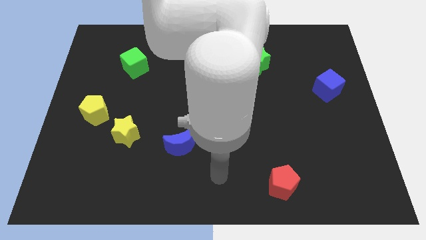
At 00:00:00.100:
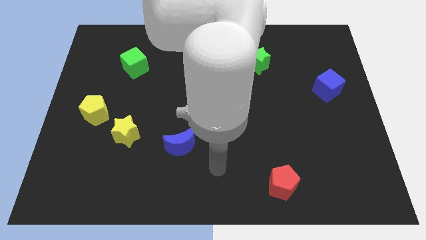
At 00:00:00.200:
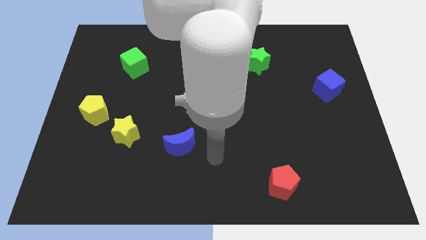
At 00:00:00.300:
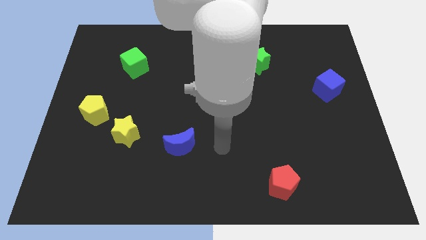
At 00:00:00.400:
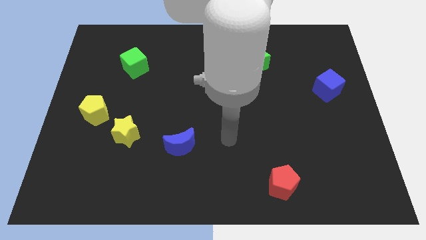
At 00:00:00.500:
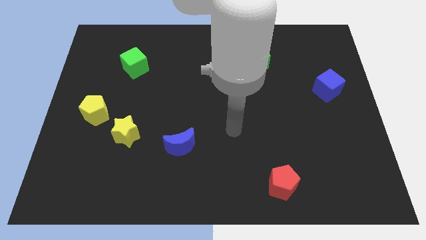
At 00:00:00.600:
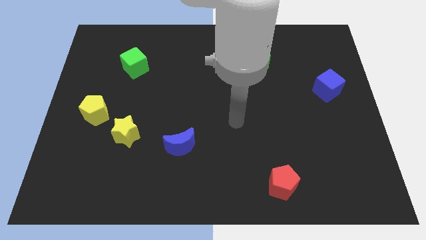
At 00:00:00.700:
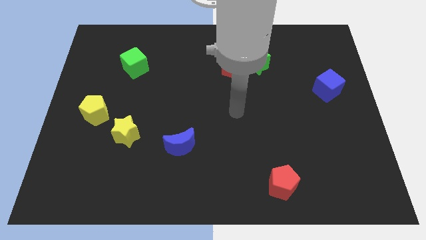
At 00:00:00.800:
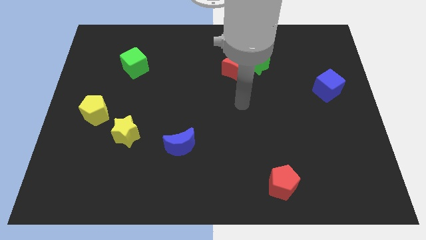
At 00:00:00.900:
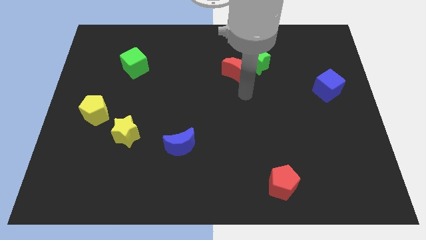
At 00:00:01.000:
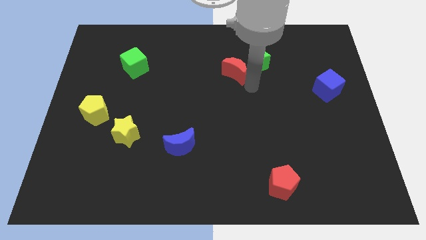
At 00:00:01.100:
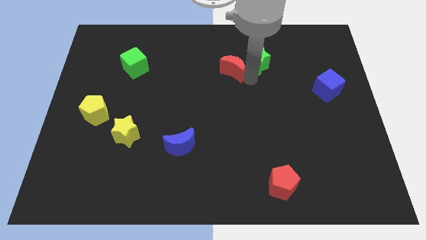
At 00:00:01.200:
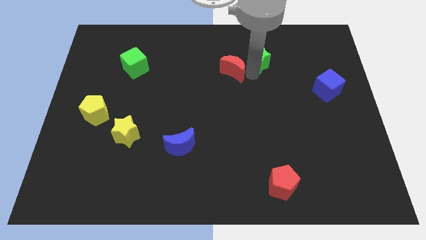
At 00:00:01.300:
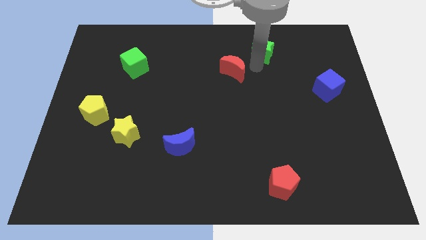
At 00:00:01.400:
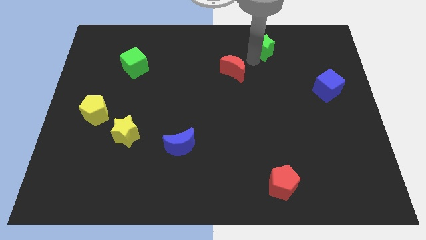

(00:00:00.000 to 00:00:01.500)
move the red moon away from the green star

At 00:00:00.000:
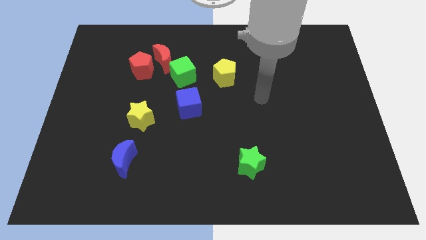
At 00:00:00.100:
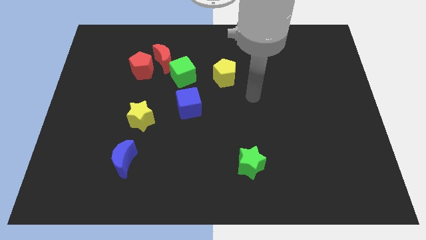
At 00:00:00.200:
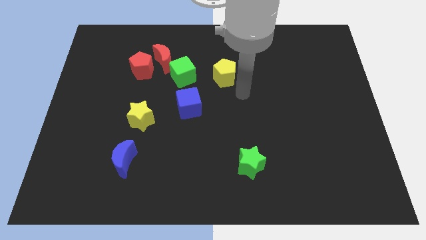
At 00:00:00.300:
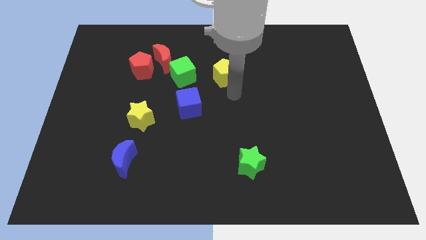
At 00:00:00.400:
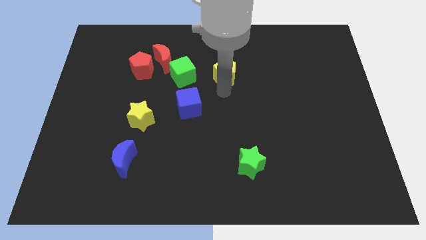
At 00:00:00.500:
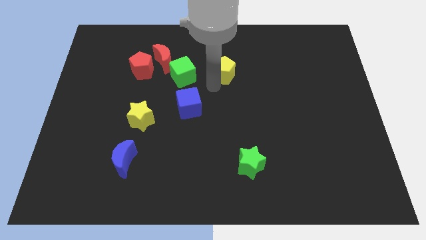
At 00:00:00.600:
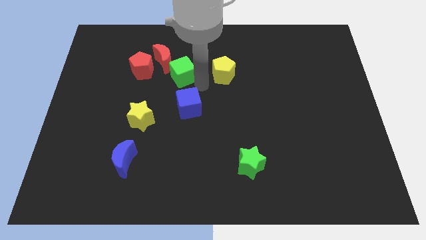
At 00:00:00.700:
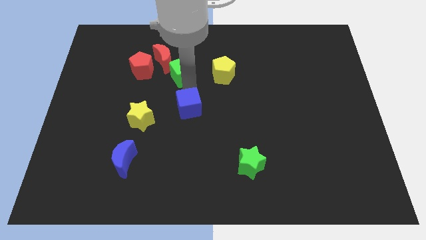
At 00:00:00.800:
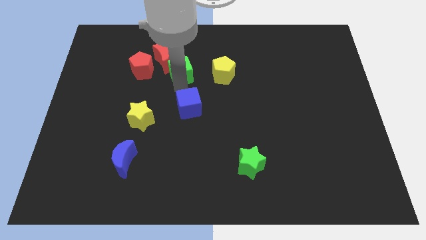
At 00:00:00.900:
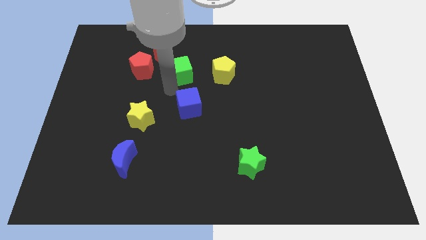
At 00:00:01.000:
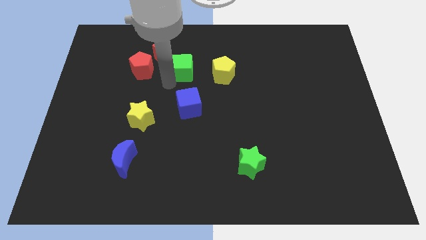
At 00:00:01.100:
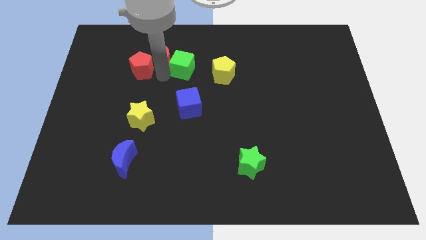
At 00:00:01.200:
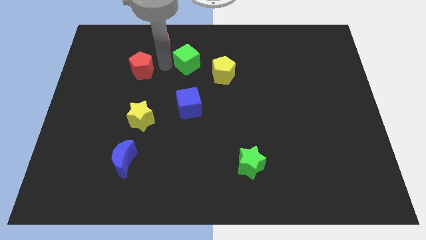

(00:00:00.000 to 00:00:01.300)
pull the red pentagon apart from the red moon

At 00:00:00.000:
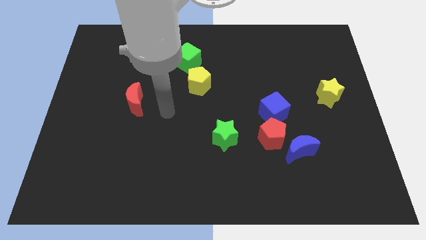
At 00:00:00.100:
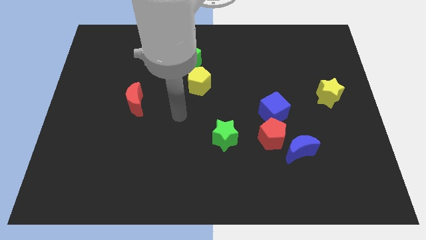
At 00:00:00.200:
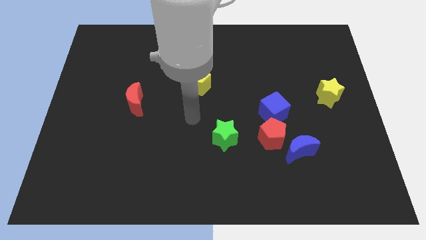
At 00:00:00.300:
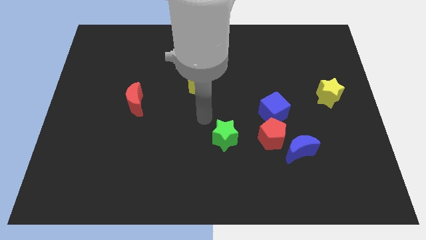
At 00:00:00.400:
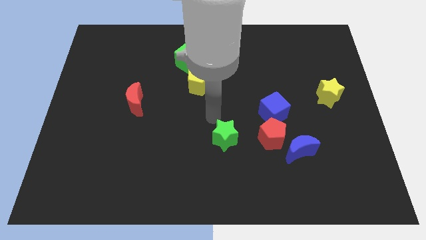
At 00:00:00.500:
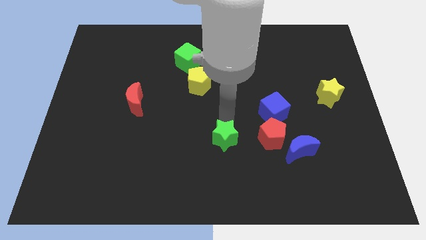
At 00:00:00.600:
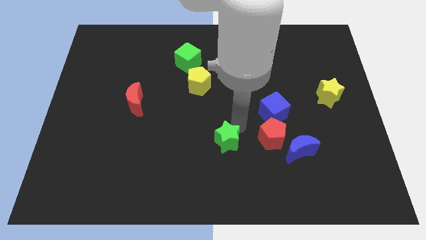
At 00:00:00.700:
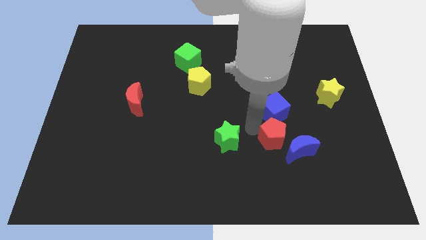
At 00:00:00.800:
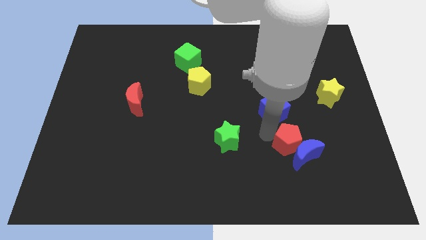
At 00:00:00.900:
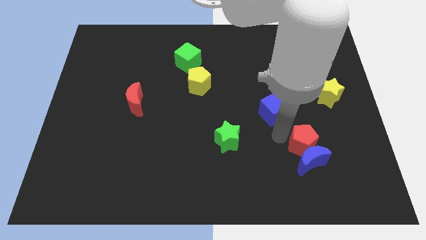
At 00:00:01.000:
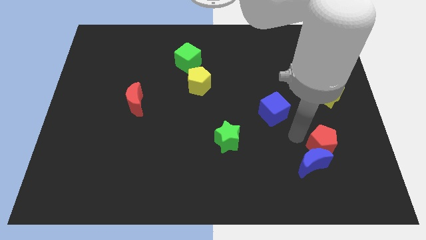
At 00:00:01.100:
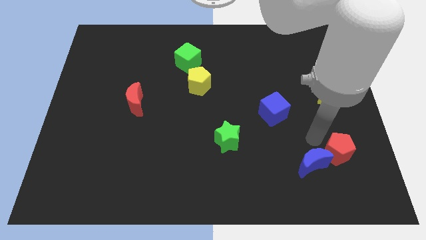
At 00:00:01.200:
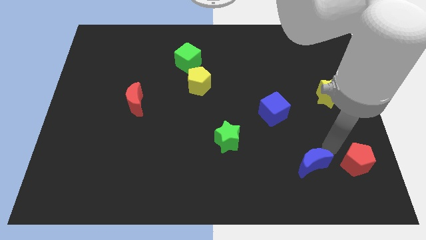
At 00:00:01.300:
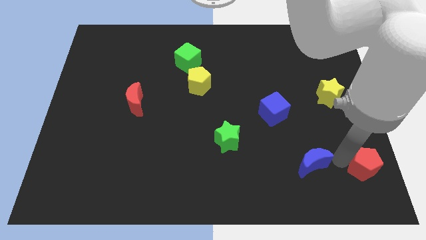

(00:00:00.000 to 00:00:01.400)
move the blue moon away from the red pentagon

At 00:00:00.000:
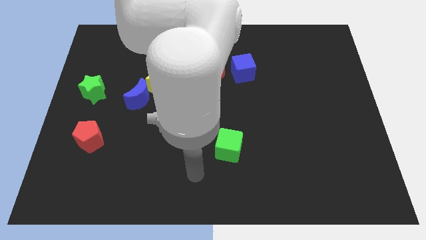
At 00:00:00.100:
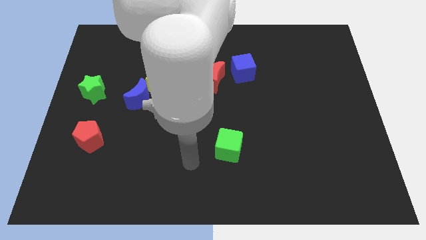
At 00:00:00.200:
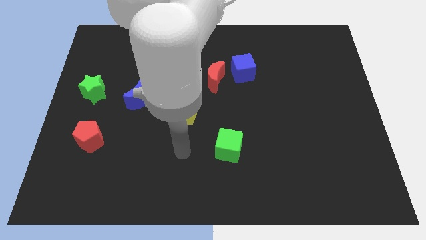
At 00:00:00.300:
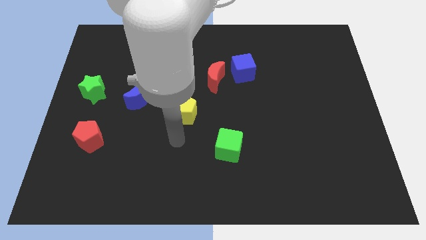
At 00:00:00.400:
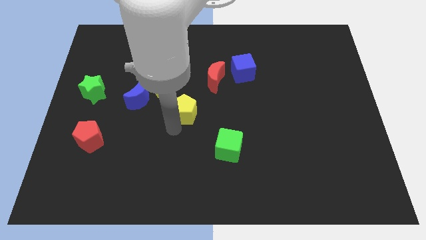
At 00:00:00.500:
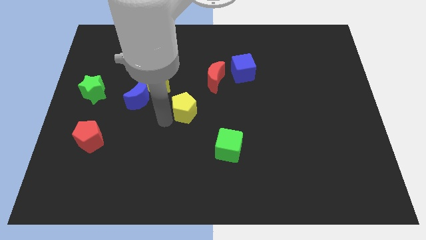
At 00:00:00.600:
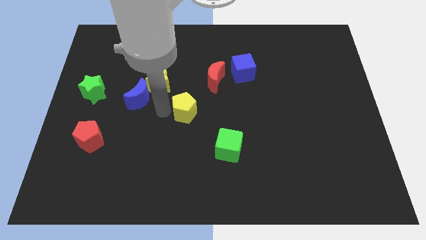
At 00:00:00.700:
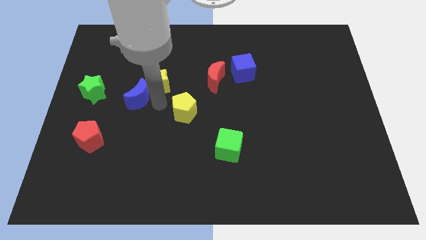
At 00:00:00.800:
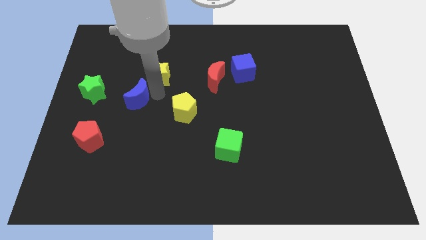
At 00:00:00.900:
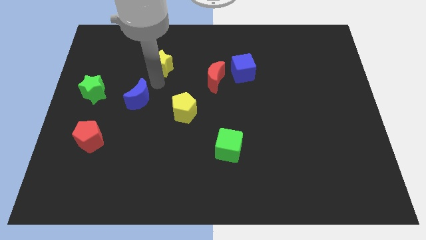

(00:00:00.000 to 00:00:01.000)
move the blue moon away from the yellow star

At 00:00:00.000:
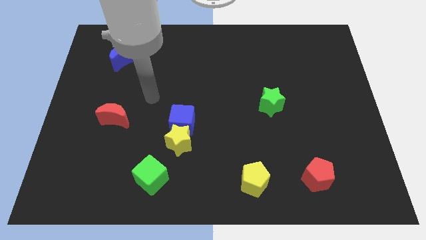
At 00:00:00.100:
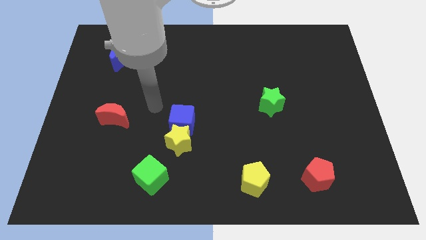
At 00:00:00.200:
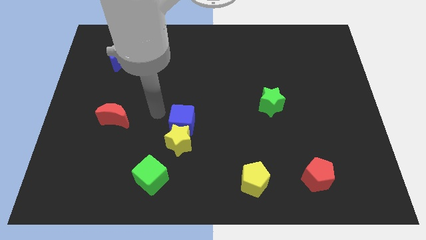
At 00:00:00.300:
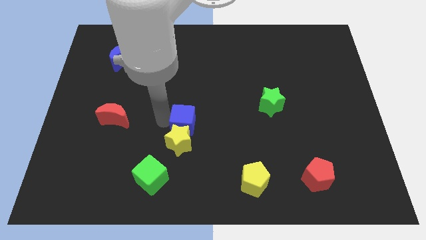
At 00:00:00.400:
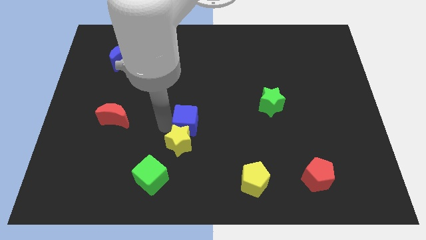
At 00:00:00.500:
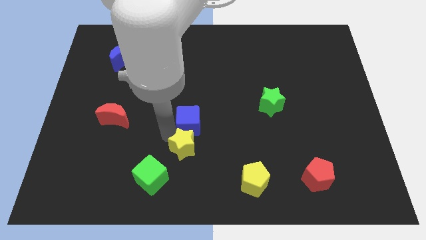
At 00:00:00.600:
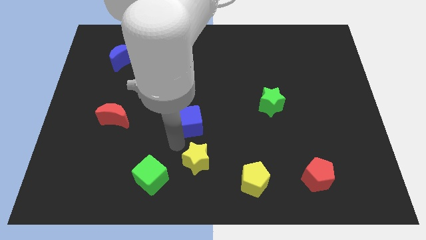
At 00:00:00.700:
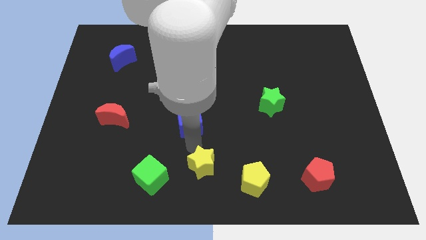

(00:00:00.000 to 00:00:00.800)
move the blue cube away from the yellow star

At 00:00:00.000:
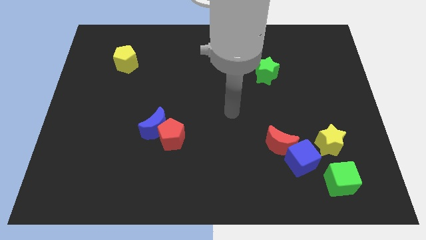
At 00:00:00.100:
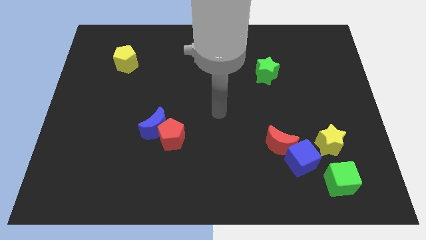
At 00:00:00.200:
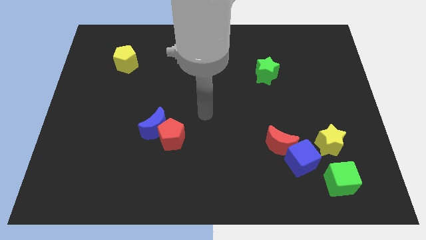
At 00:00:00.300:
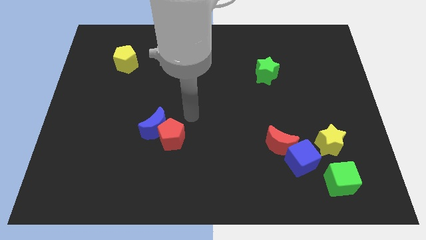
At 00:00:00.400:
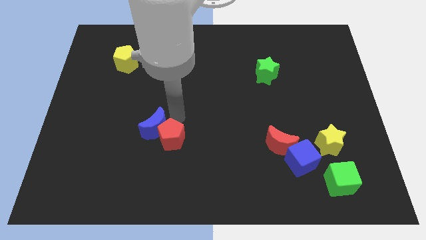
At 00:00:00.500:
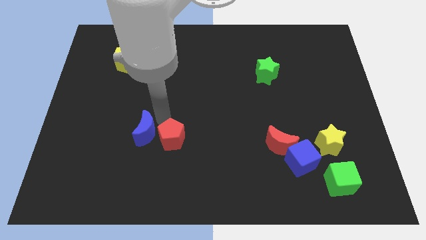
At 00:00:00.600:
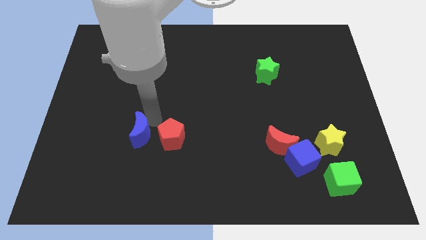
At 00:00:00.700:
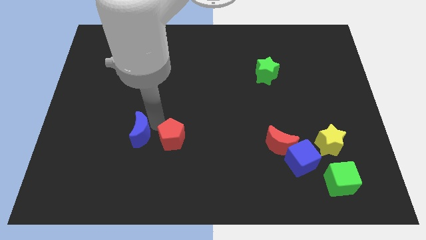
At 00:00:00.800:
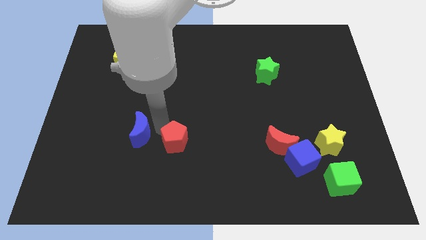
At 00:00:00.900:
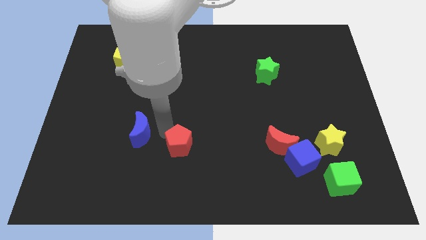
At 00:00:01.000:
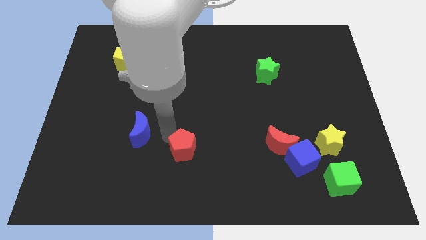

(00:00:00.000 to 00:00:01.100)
move the red pentagon away from the blue moon

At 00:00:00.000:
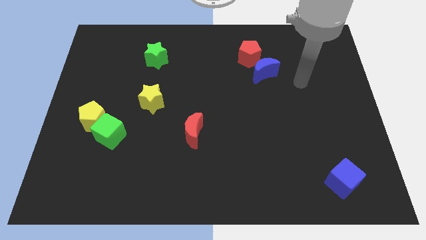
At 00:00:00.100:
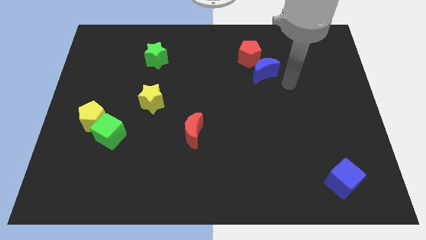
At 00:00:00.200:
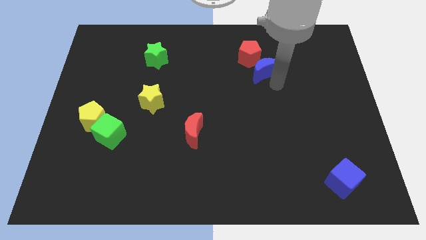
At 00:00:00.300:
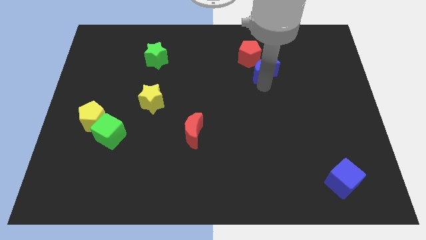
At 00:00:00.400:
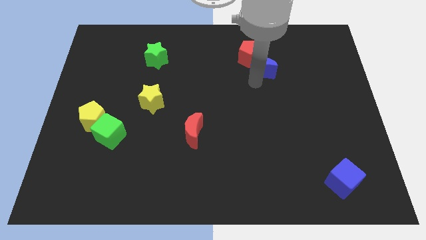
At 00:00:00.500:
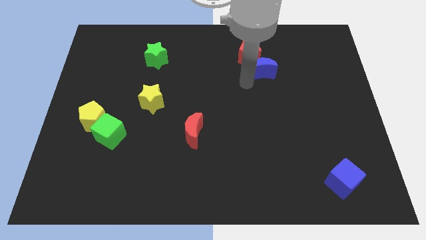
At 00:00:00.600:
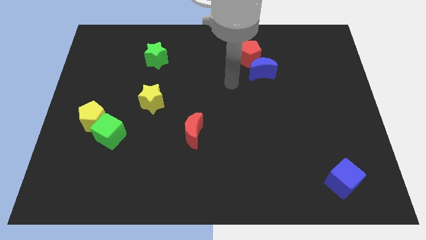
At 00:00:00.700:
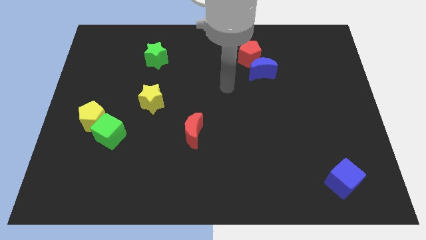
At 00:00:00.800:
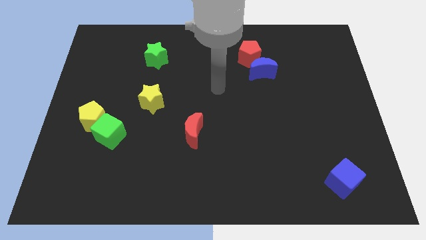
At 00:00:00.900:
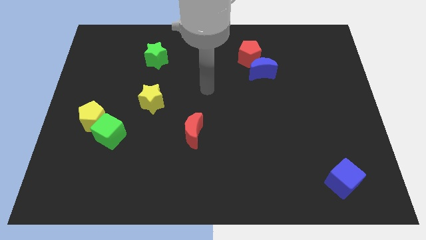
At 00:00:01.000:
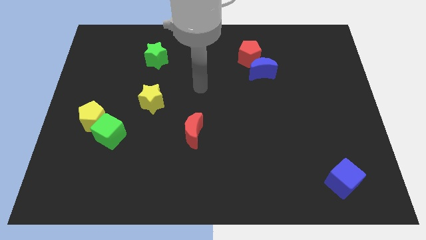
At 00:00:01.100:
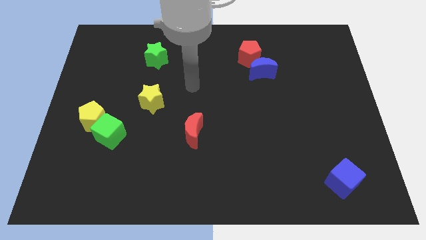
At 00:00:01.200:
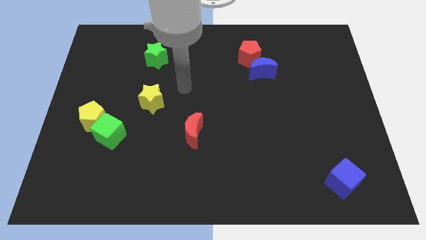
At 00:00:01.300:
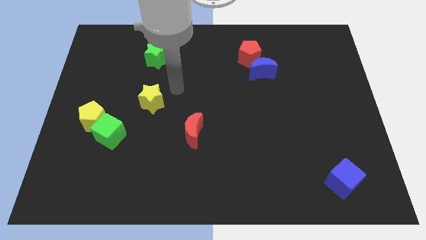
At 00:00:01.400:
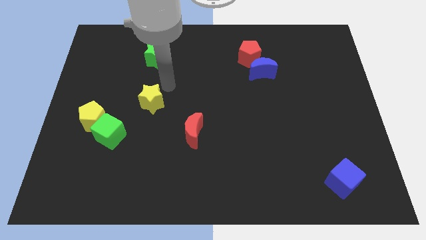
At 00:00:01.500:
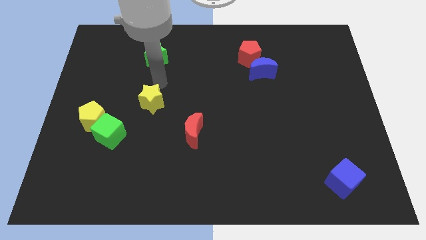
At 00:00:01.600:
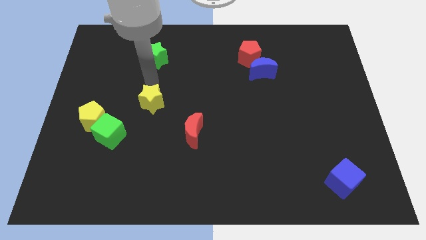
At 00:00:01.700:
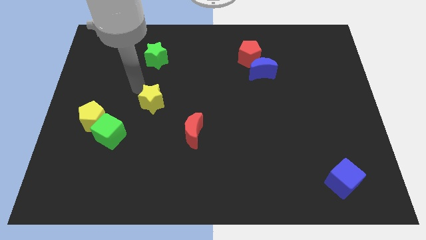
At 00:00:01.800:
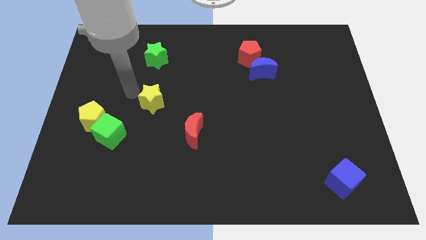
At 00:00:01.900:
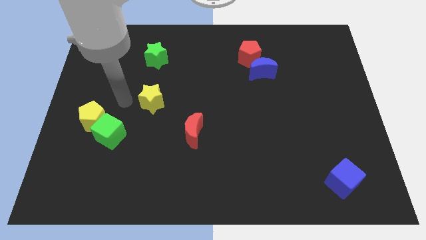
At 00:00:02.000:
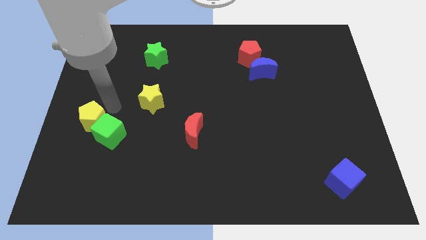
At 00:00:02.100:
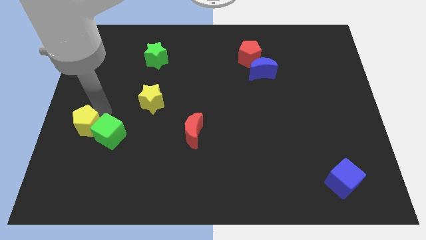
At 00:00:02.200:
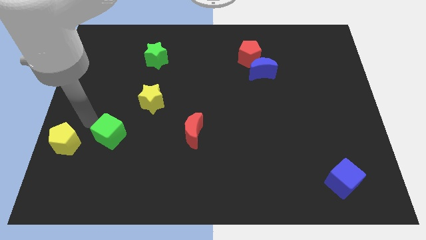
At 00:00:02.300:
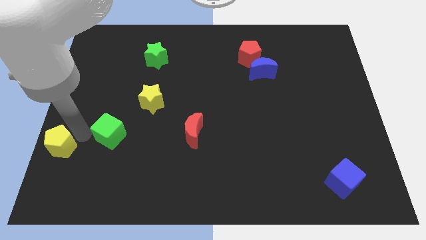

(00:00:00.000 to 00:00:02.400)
move the green cube away from the yellow pentagon
